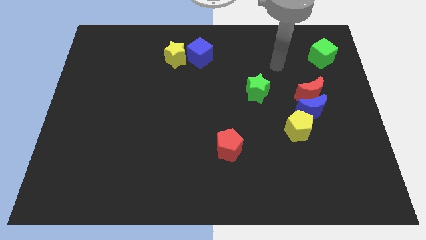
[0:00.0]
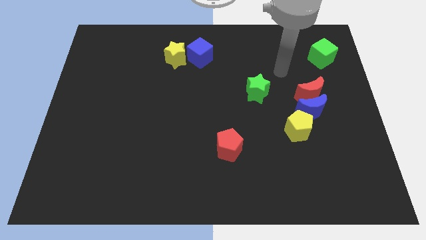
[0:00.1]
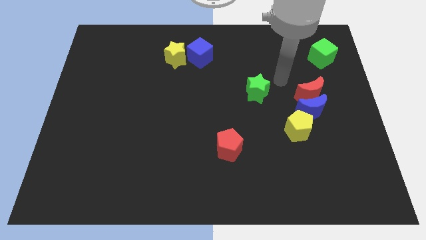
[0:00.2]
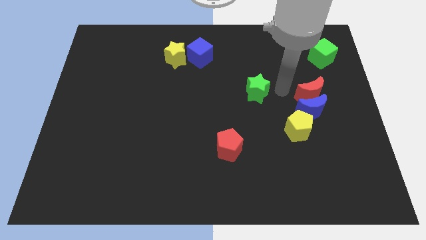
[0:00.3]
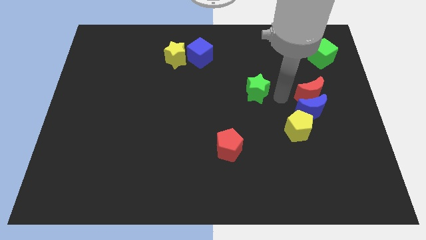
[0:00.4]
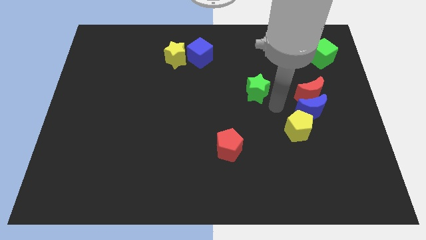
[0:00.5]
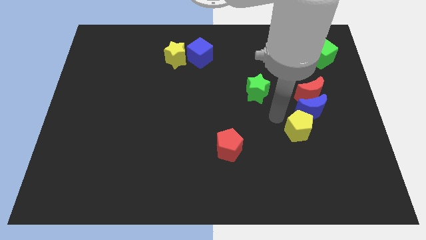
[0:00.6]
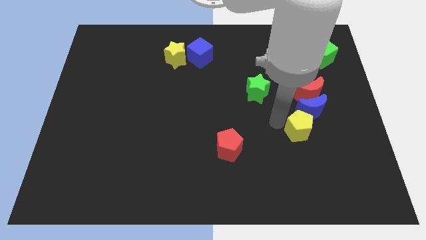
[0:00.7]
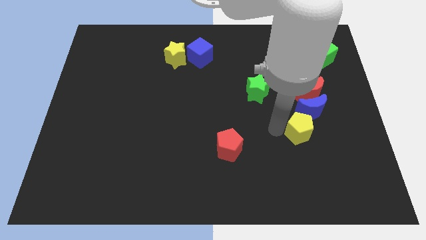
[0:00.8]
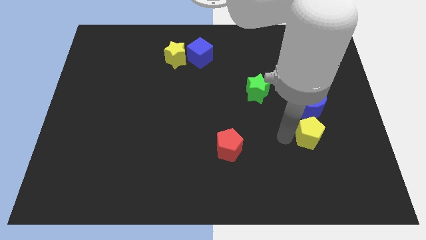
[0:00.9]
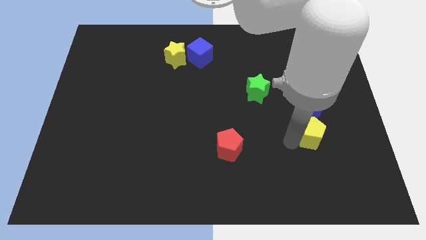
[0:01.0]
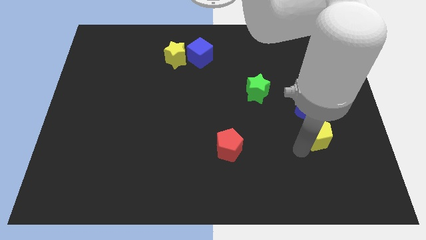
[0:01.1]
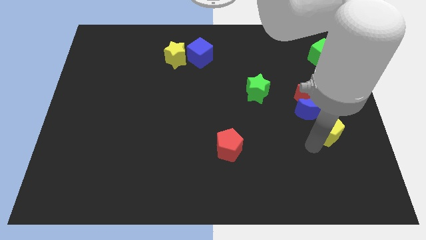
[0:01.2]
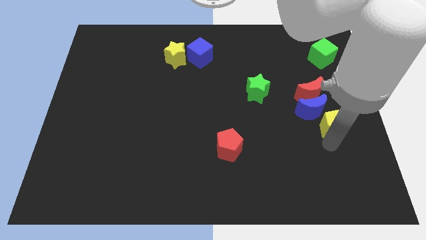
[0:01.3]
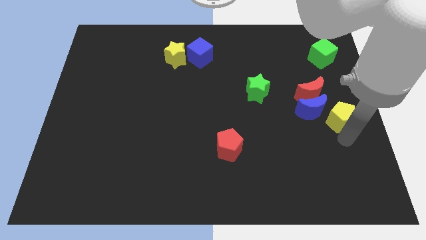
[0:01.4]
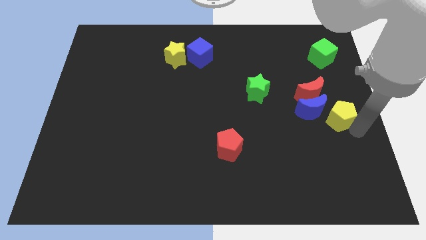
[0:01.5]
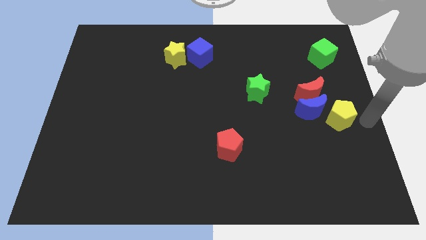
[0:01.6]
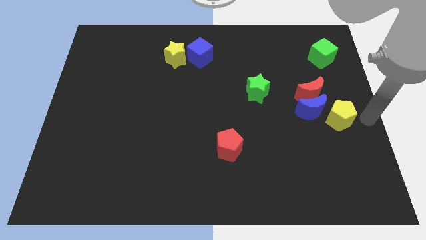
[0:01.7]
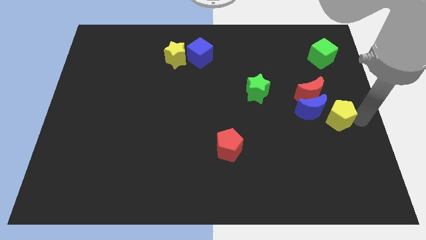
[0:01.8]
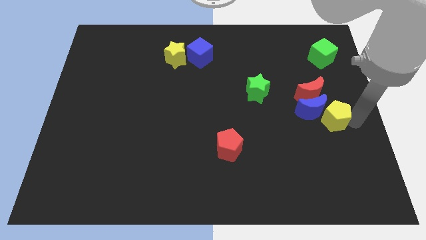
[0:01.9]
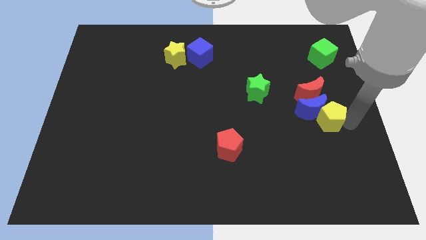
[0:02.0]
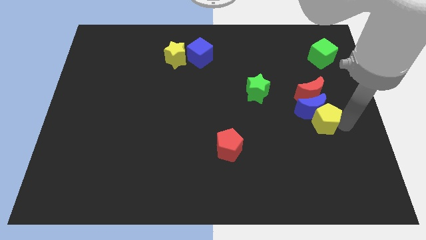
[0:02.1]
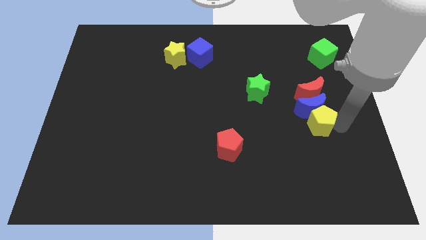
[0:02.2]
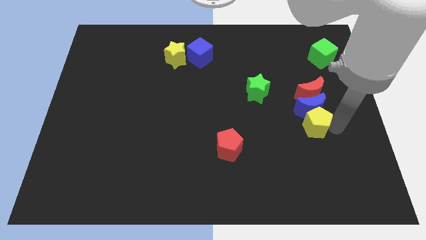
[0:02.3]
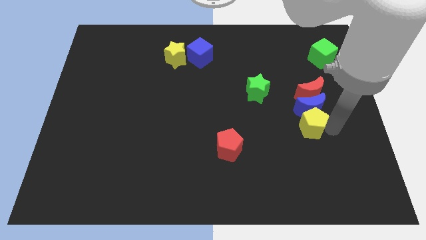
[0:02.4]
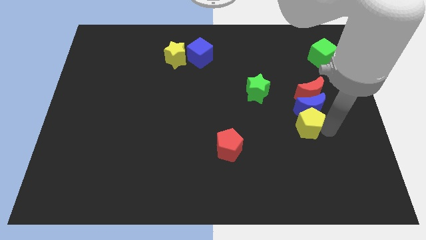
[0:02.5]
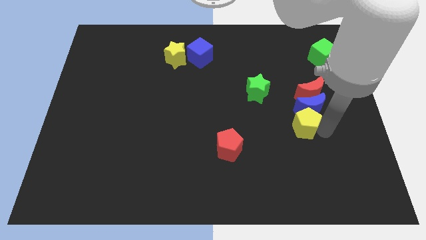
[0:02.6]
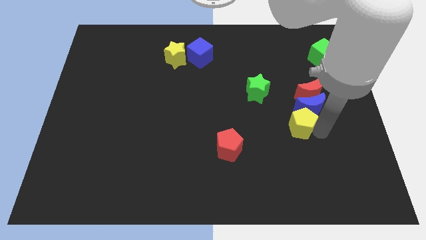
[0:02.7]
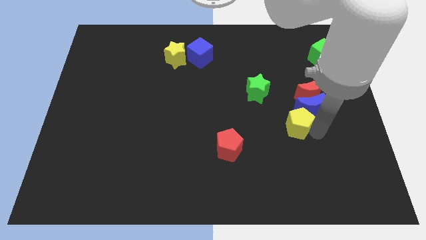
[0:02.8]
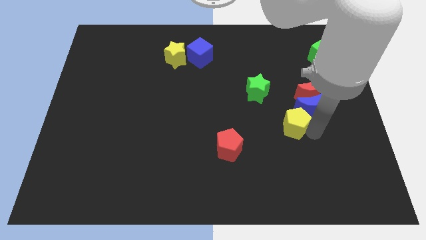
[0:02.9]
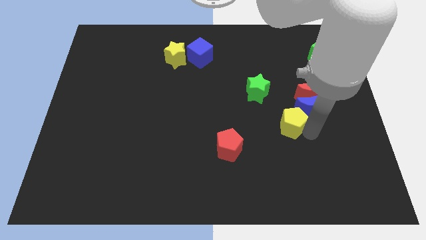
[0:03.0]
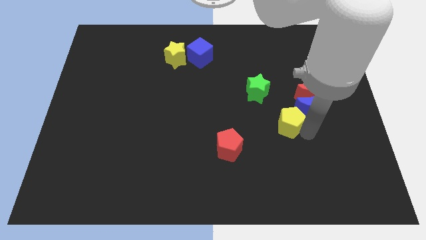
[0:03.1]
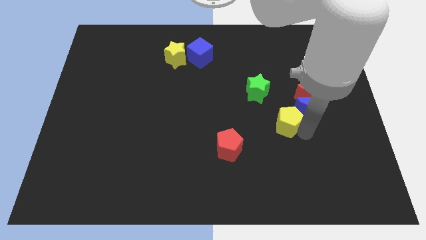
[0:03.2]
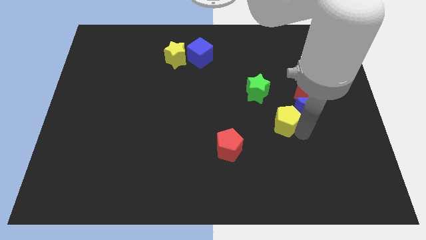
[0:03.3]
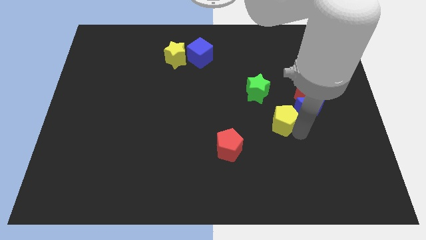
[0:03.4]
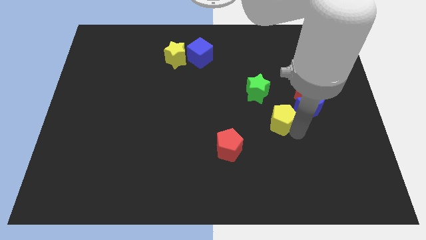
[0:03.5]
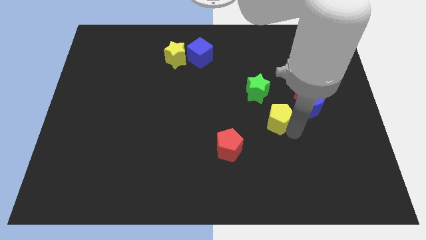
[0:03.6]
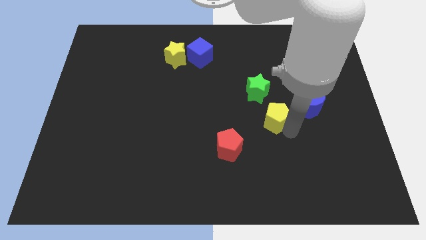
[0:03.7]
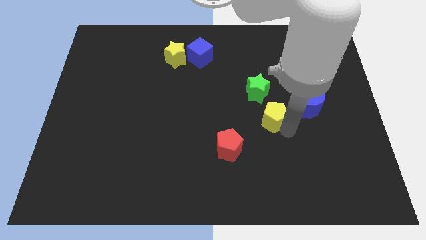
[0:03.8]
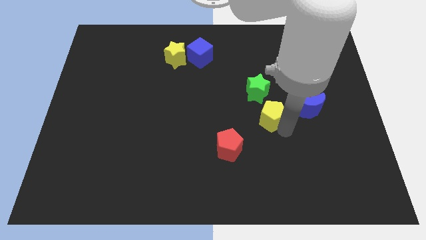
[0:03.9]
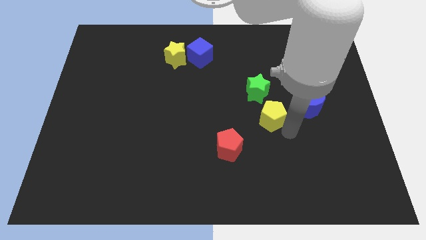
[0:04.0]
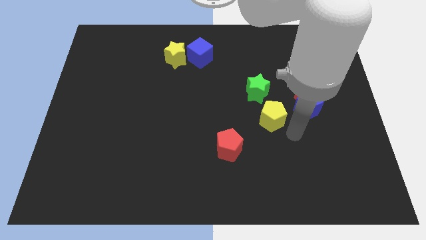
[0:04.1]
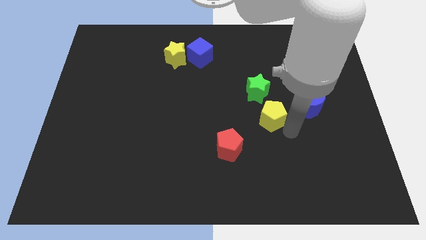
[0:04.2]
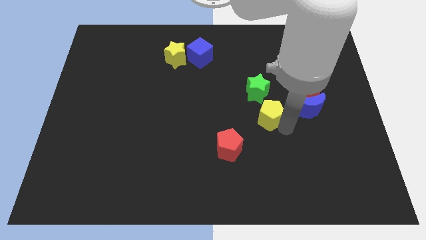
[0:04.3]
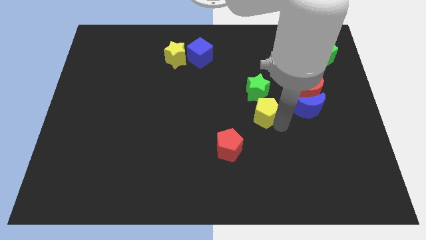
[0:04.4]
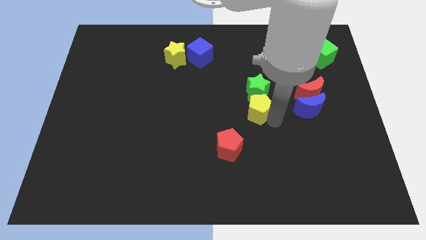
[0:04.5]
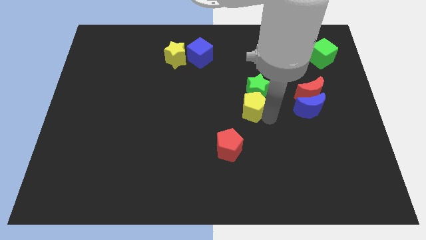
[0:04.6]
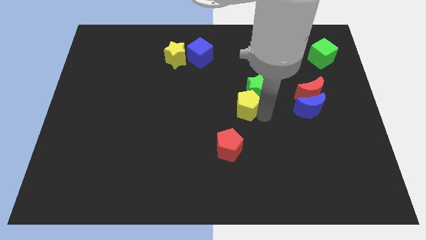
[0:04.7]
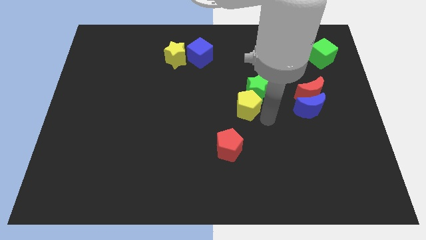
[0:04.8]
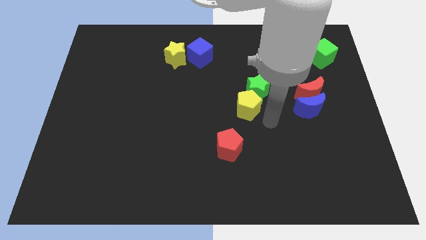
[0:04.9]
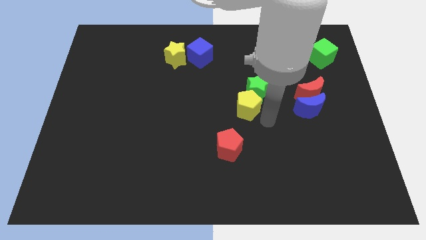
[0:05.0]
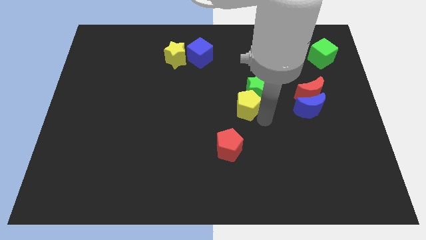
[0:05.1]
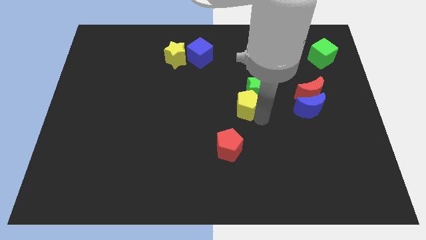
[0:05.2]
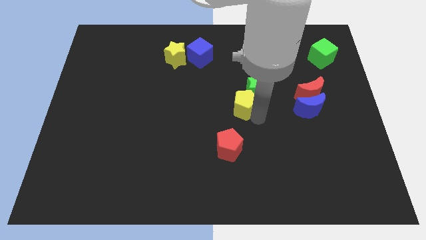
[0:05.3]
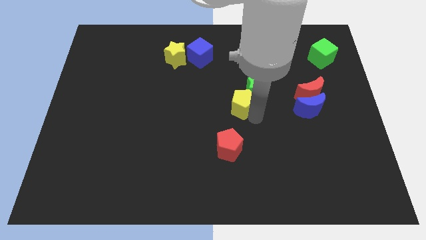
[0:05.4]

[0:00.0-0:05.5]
push the yellow pentagon left of the green star

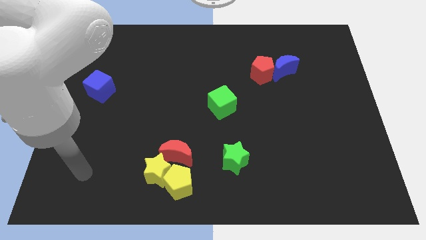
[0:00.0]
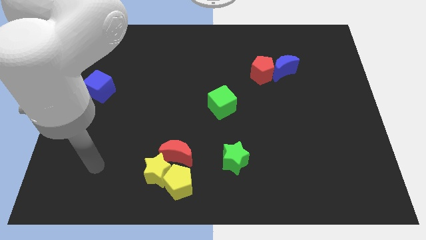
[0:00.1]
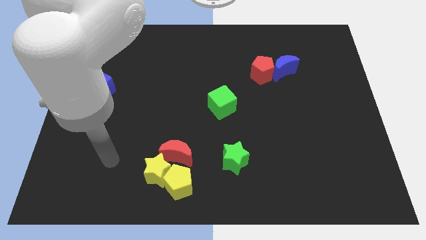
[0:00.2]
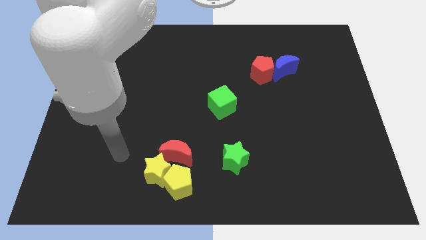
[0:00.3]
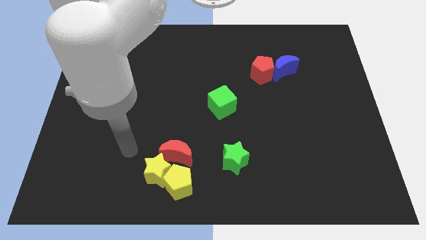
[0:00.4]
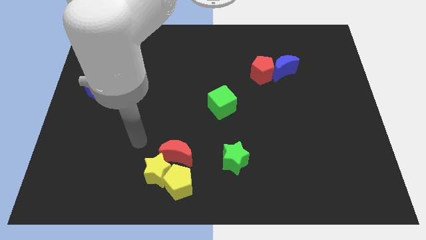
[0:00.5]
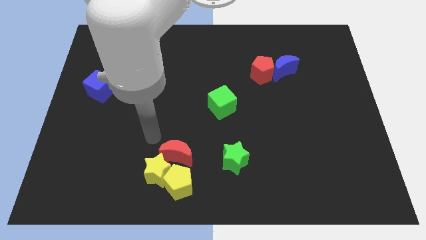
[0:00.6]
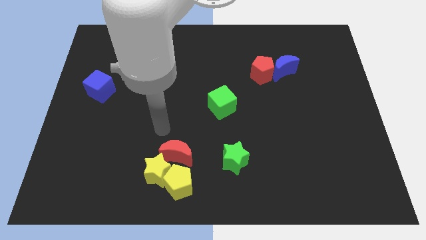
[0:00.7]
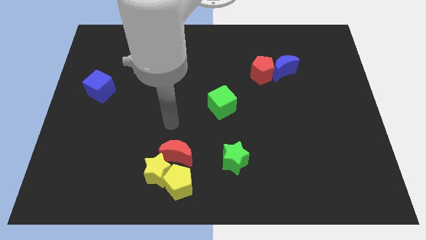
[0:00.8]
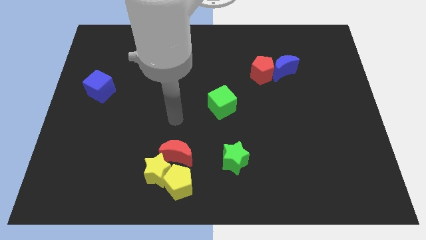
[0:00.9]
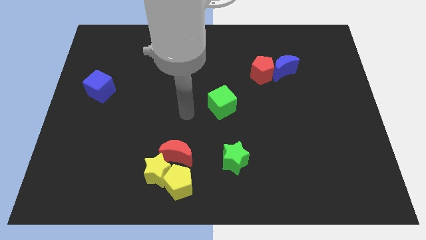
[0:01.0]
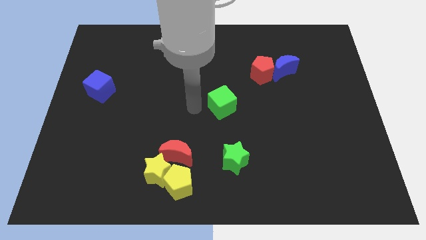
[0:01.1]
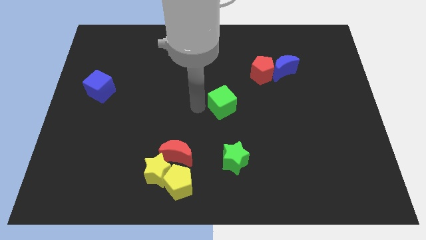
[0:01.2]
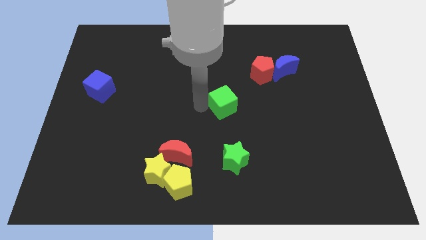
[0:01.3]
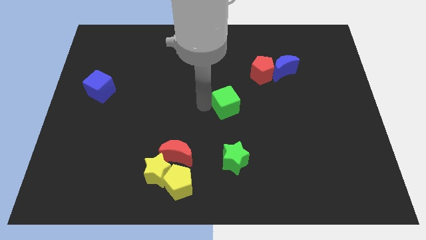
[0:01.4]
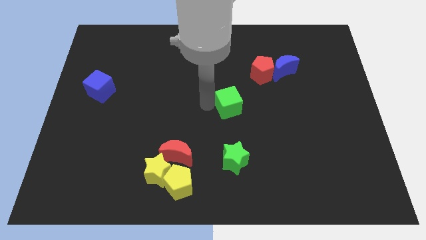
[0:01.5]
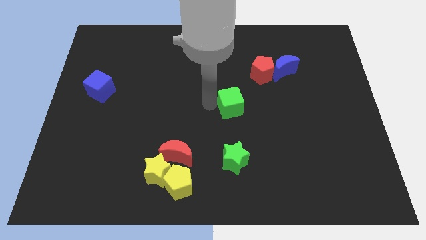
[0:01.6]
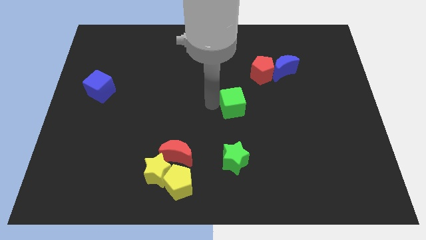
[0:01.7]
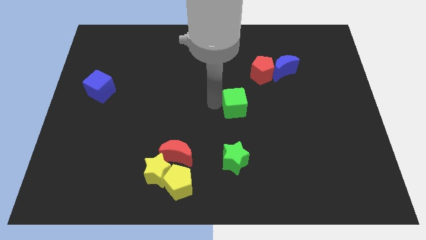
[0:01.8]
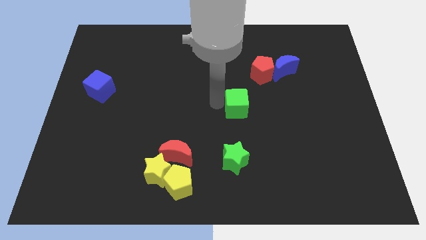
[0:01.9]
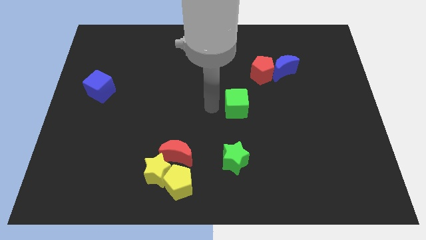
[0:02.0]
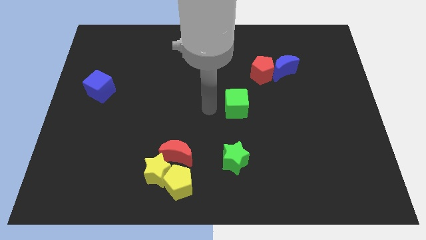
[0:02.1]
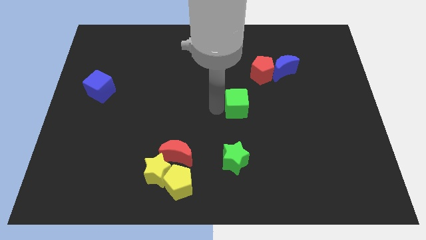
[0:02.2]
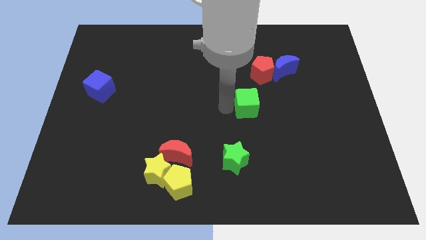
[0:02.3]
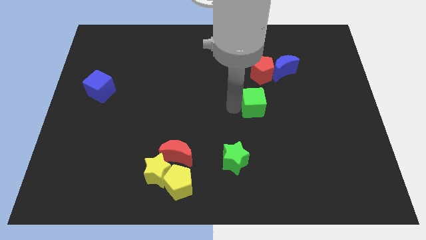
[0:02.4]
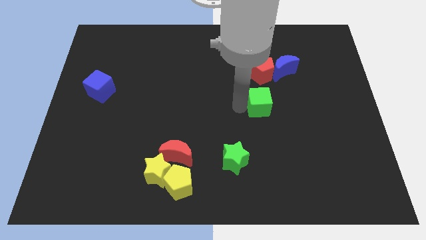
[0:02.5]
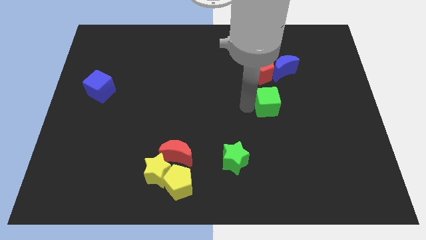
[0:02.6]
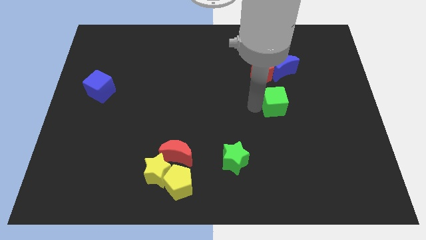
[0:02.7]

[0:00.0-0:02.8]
put the green cube to the bottom of the blue moon
